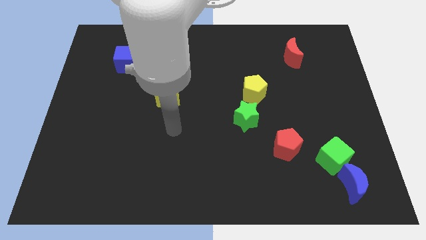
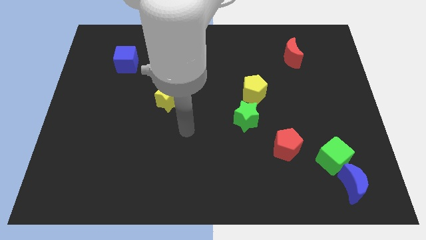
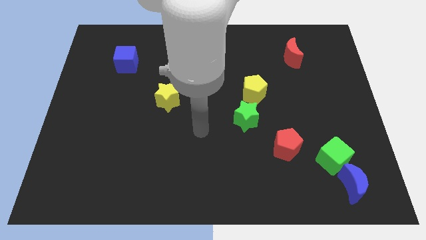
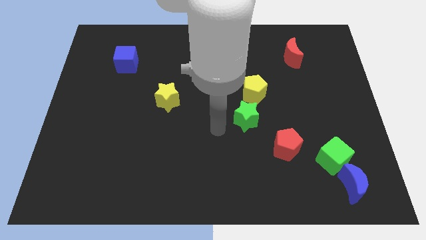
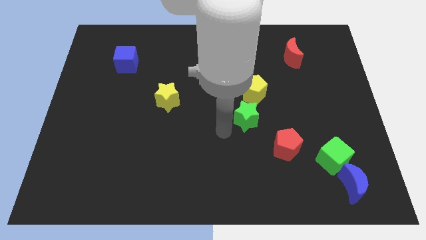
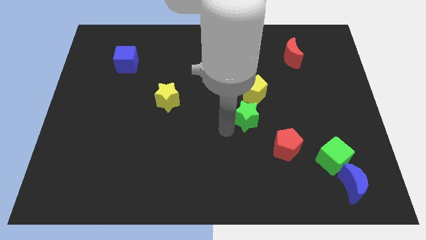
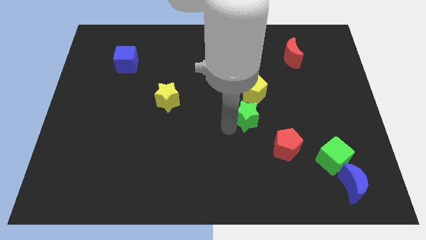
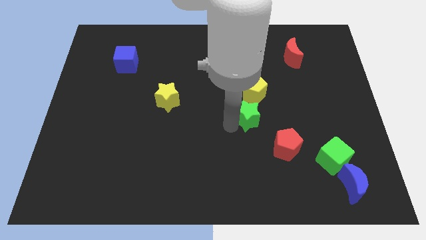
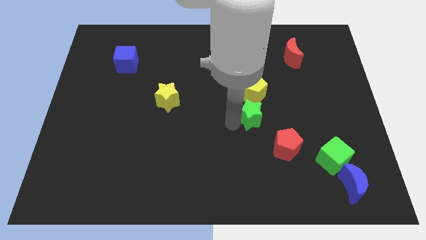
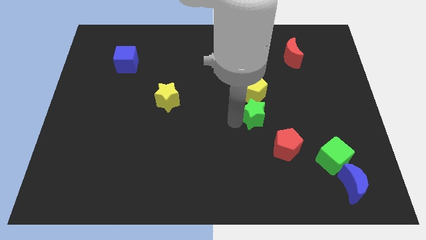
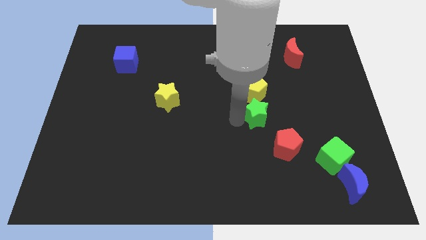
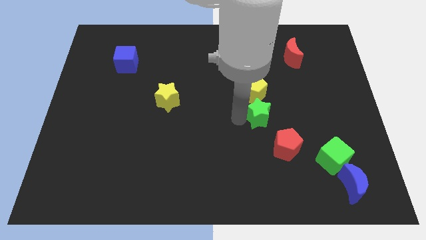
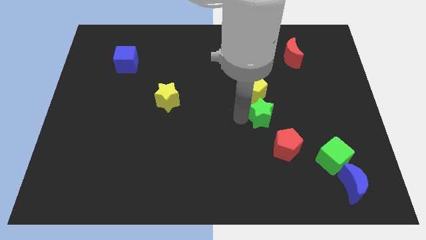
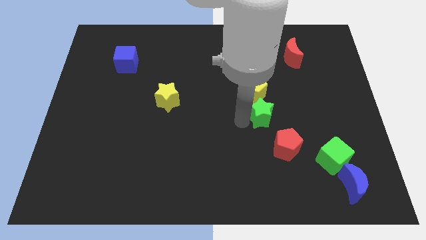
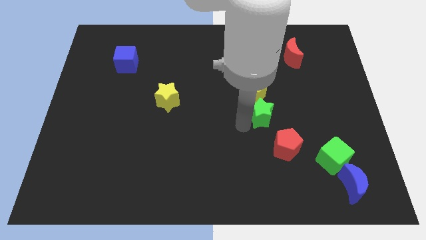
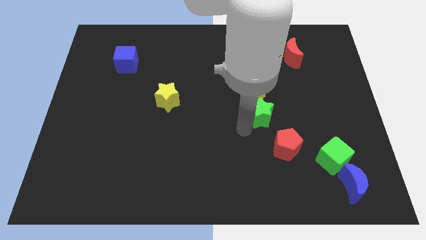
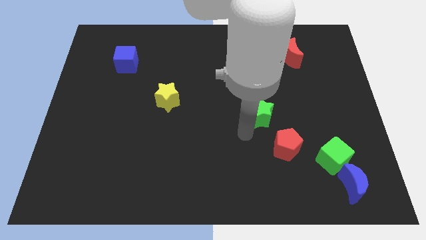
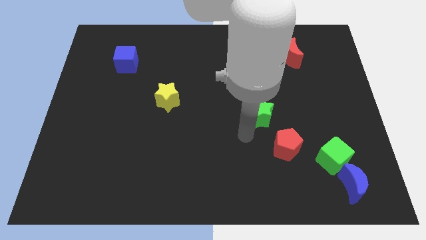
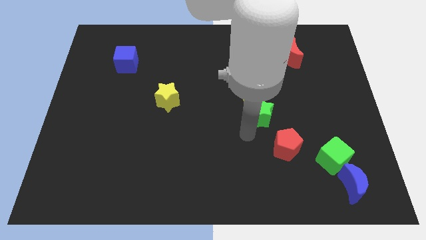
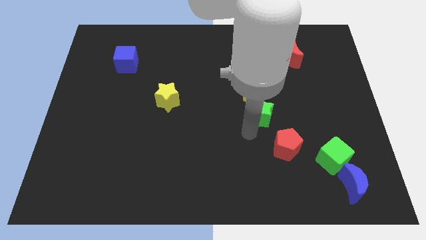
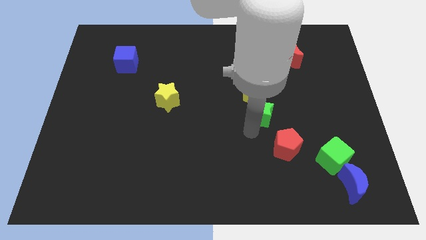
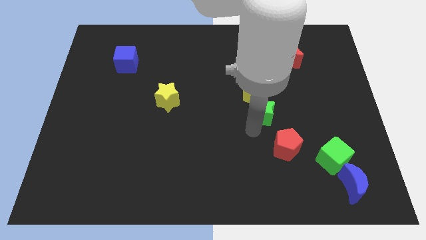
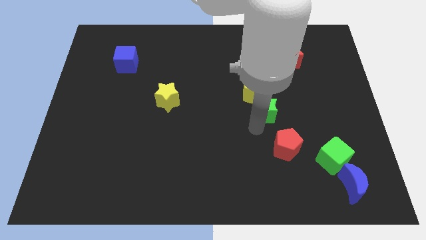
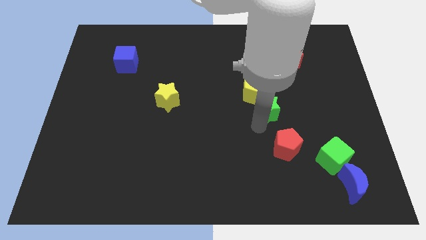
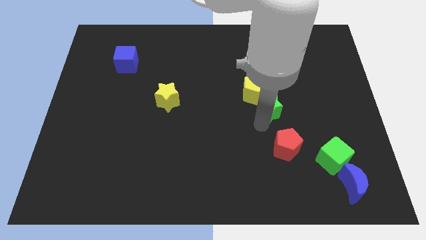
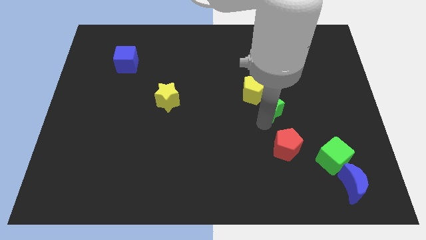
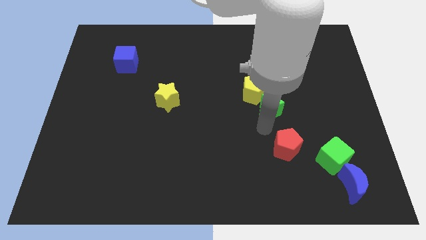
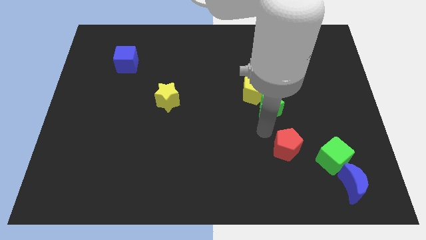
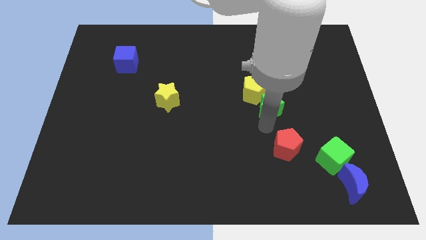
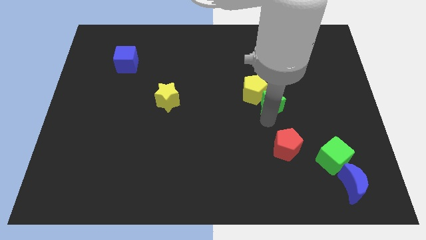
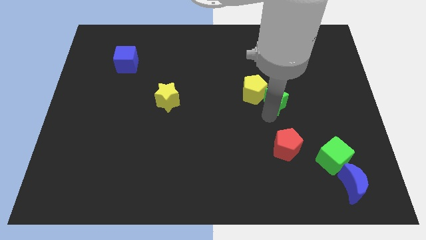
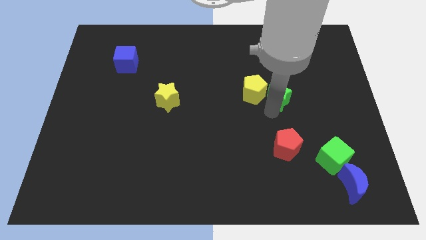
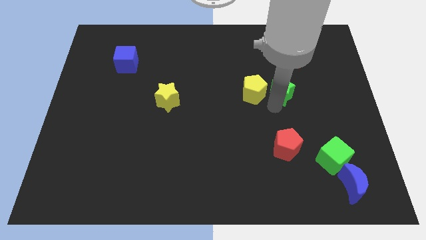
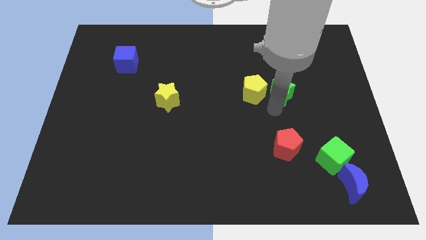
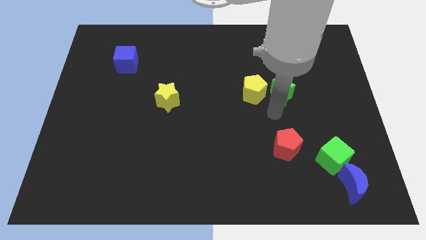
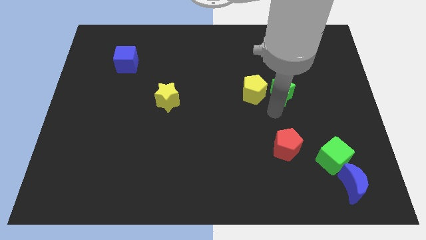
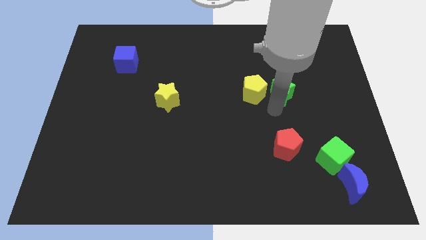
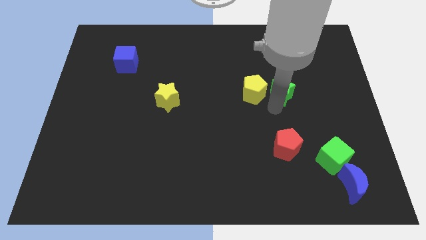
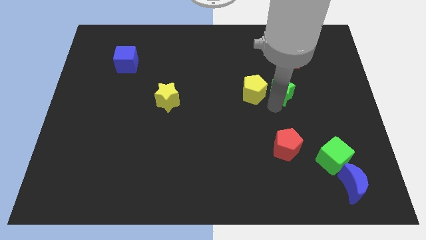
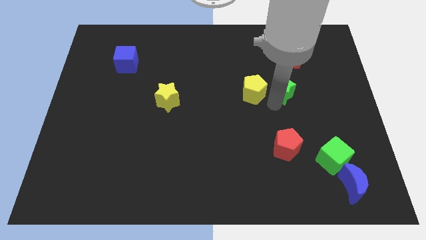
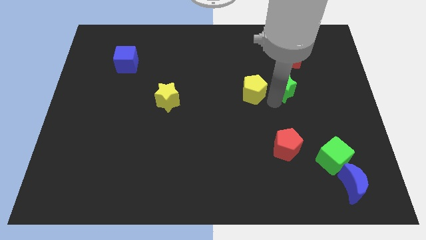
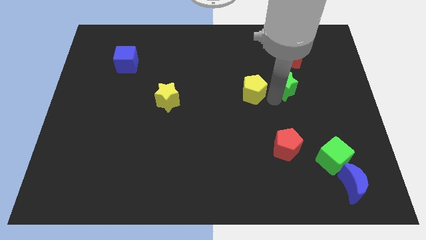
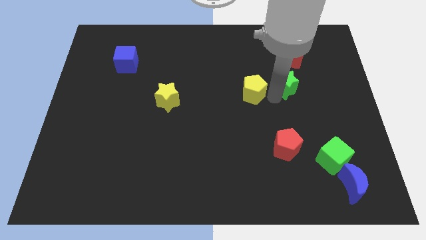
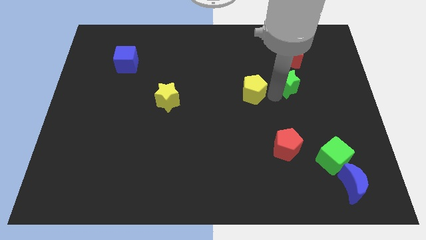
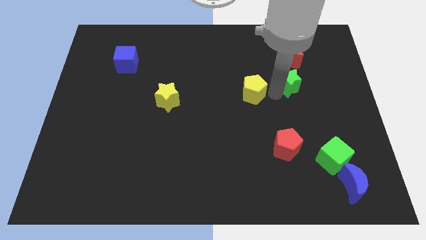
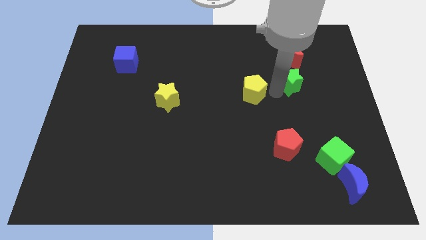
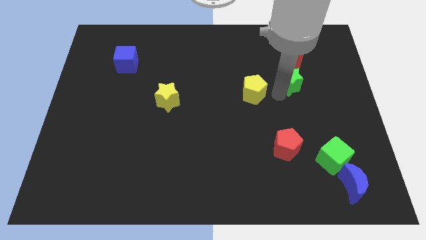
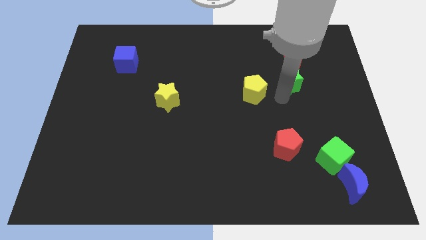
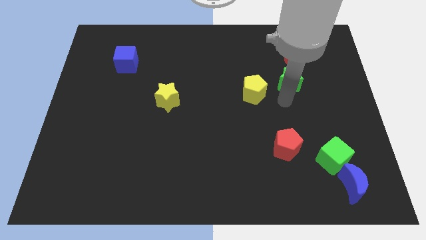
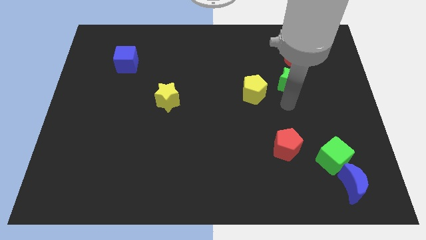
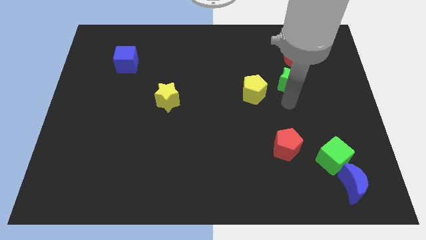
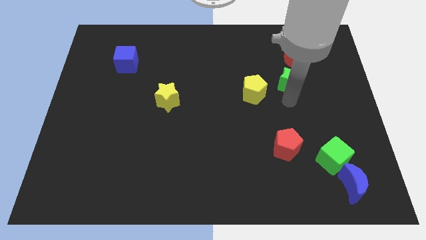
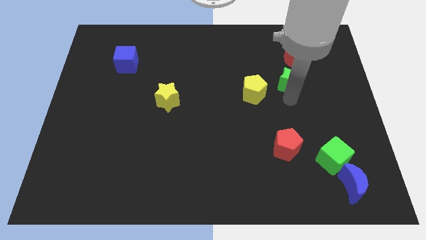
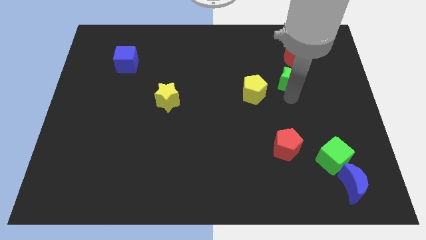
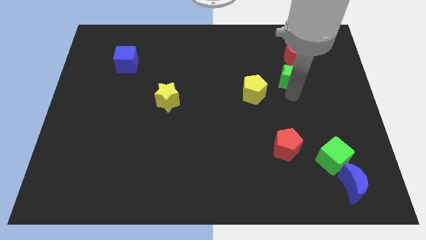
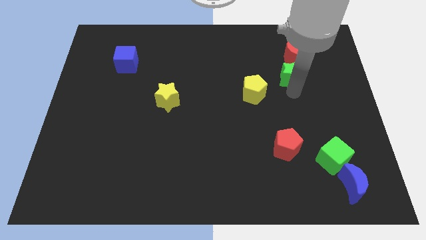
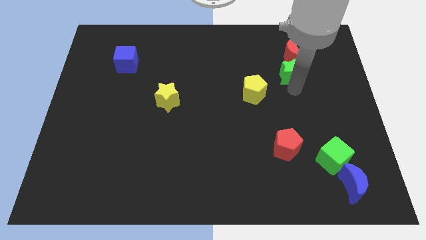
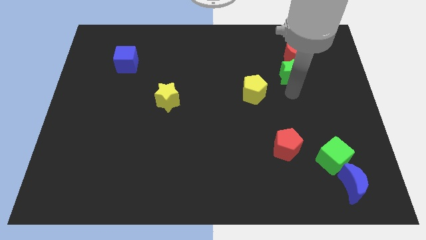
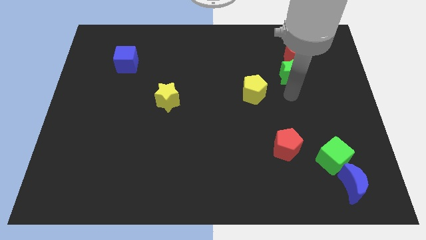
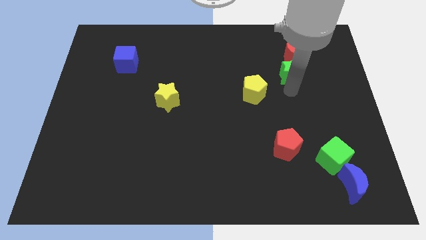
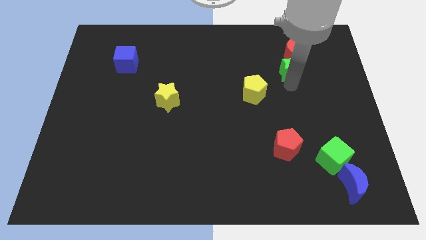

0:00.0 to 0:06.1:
slide the green star to the red moon
